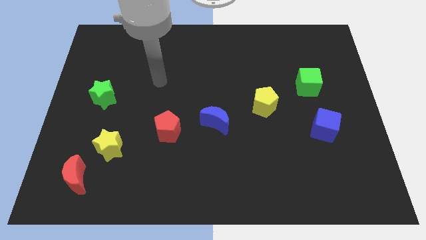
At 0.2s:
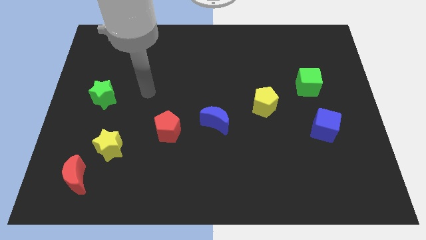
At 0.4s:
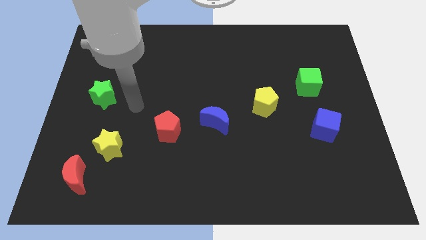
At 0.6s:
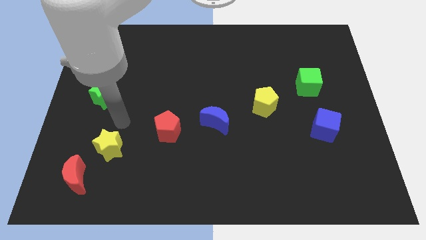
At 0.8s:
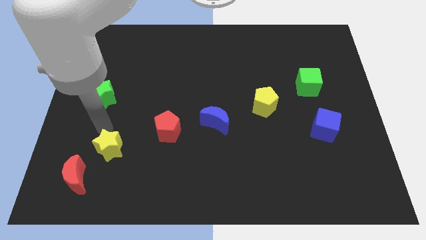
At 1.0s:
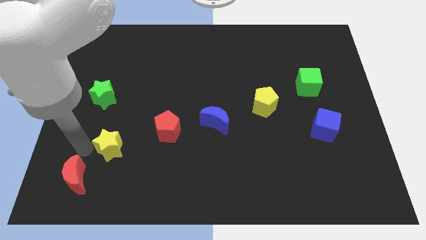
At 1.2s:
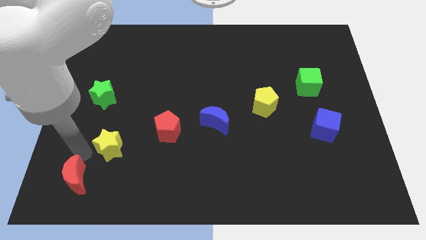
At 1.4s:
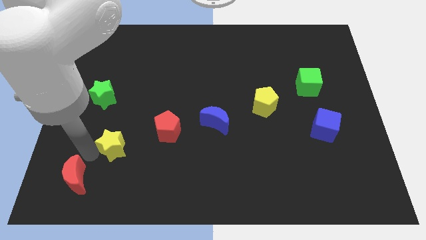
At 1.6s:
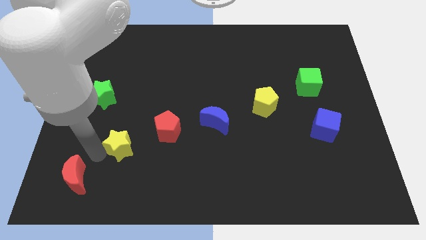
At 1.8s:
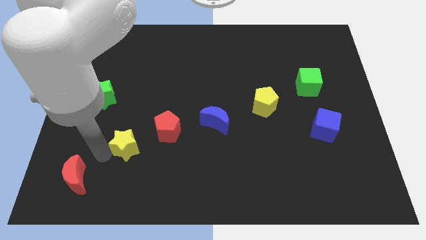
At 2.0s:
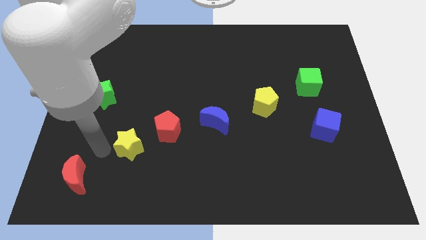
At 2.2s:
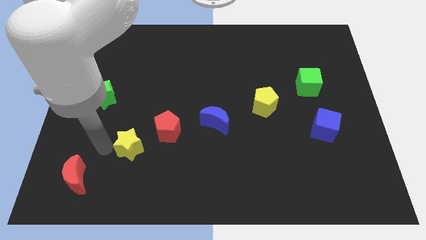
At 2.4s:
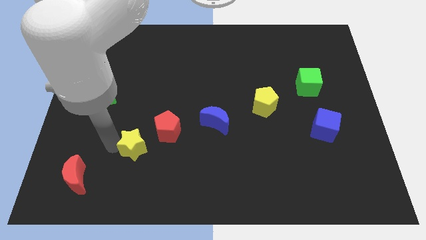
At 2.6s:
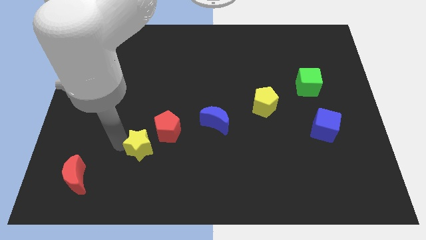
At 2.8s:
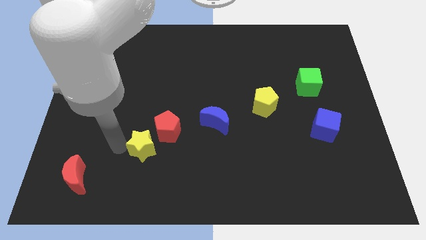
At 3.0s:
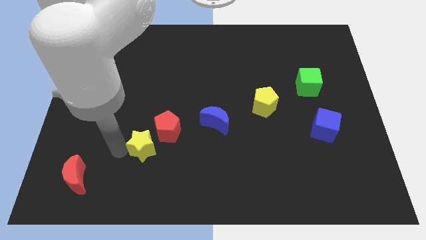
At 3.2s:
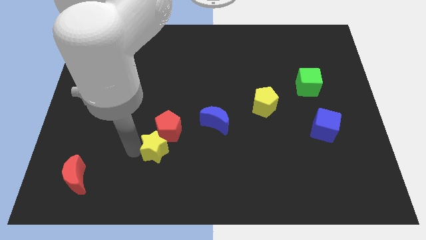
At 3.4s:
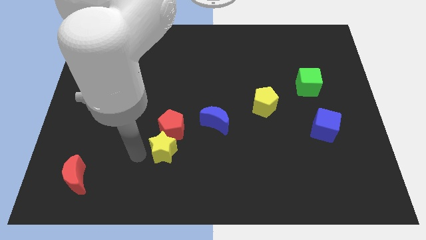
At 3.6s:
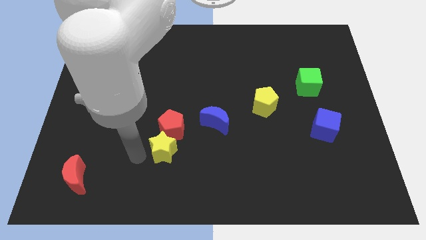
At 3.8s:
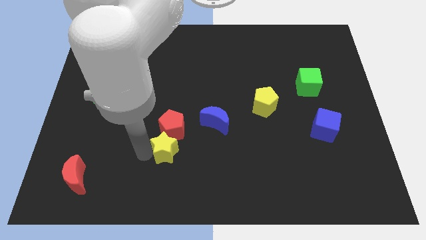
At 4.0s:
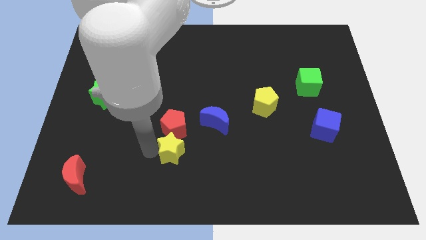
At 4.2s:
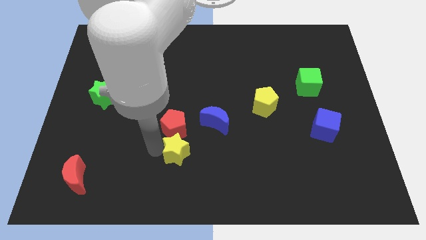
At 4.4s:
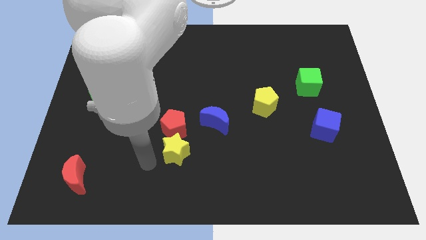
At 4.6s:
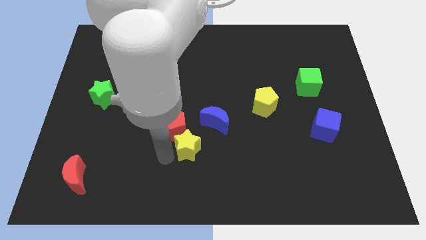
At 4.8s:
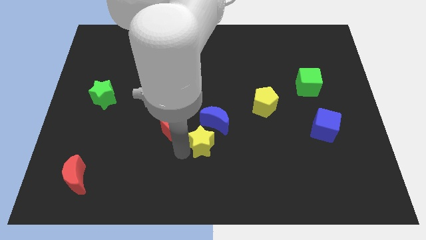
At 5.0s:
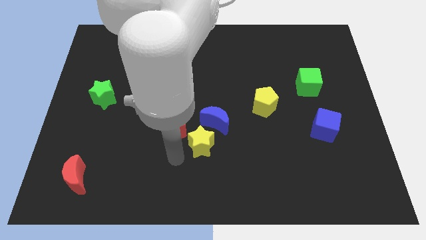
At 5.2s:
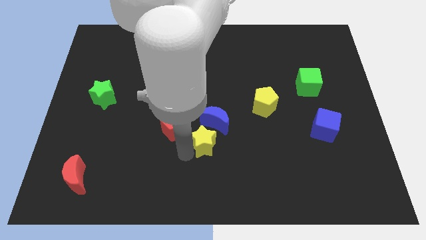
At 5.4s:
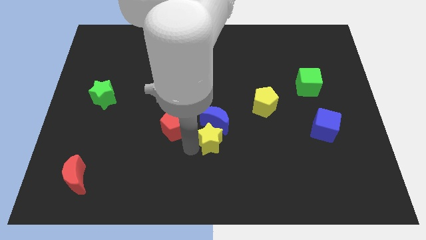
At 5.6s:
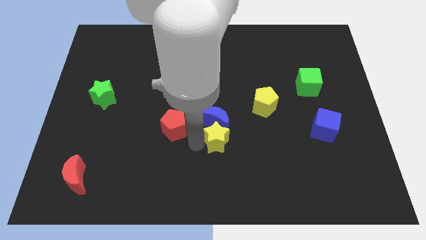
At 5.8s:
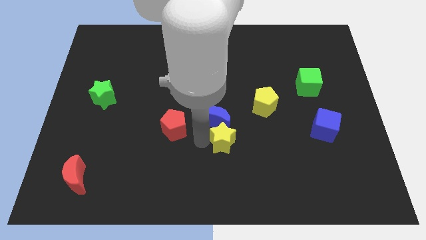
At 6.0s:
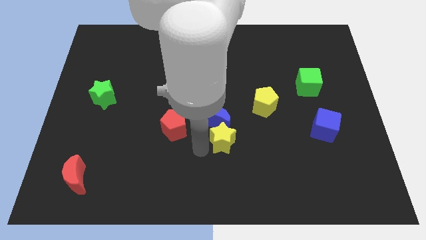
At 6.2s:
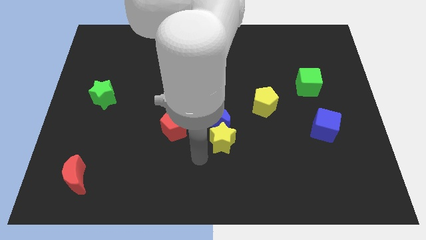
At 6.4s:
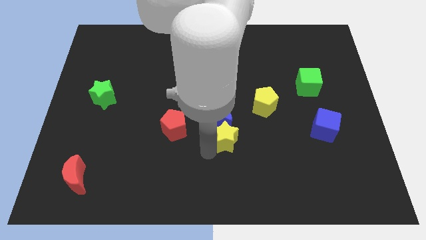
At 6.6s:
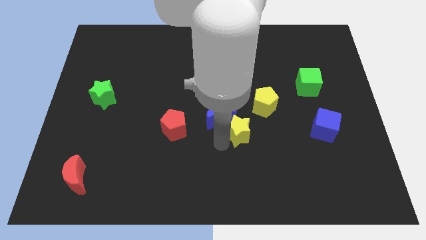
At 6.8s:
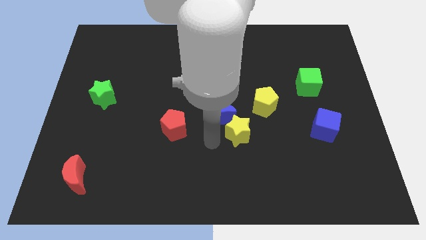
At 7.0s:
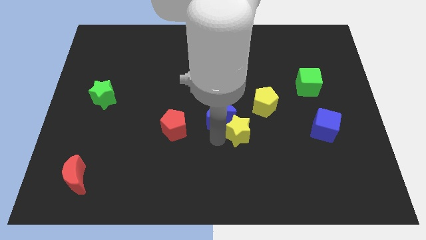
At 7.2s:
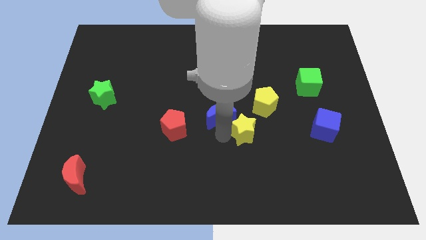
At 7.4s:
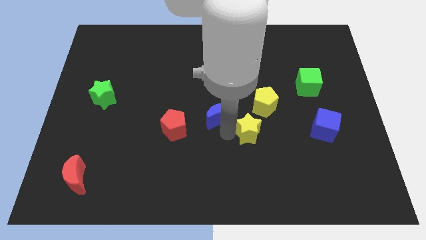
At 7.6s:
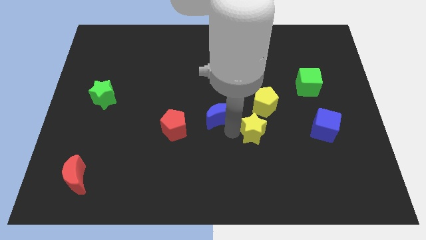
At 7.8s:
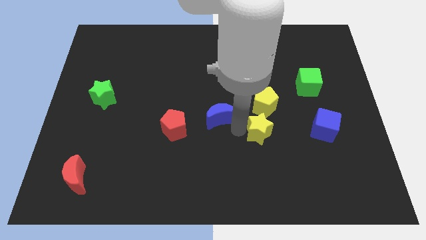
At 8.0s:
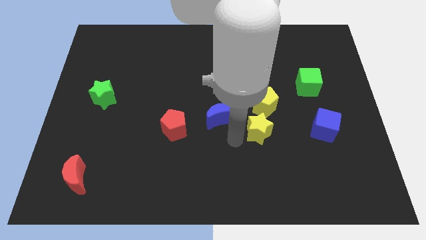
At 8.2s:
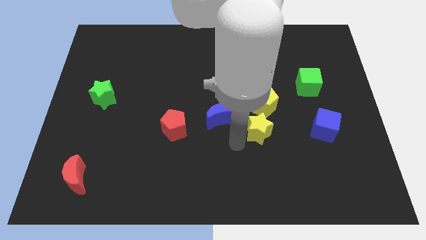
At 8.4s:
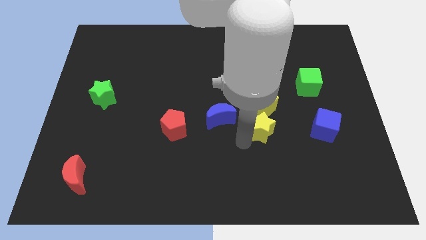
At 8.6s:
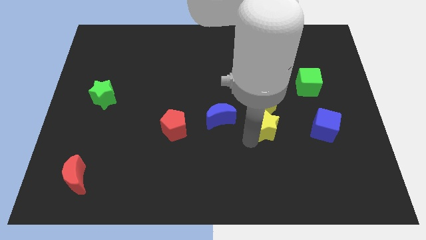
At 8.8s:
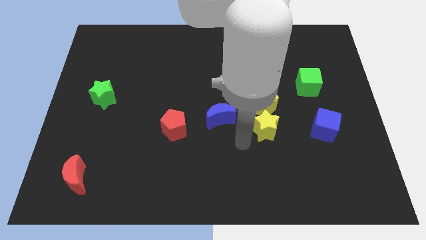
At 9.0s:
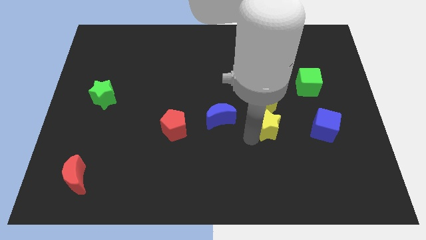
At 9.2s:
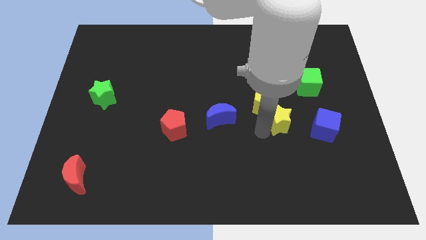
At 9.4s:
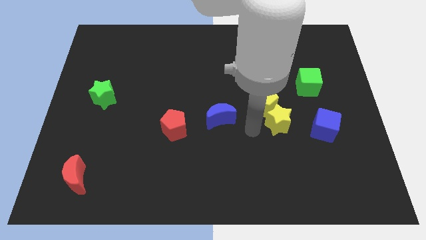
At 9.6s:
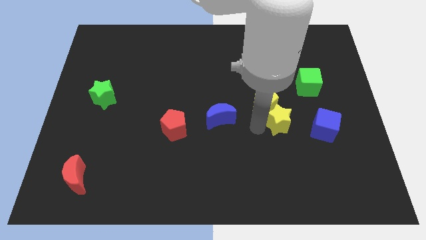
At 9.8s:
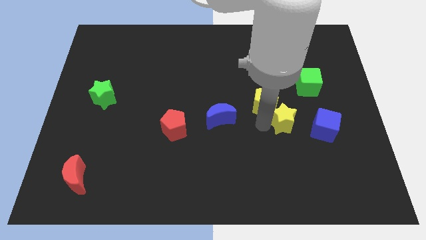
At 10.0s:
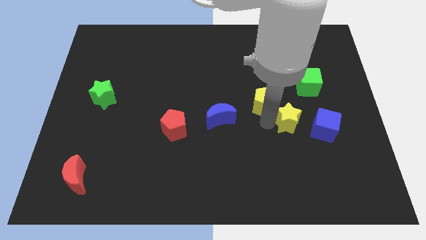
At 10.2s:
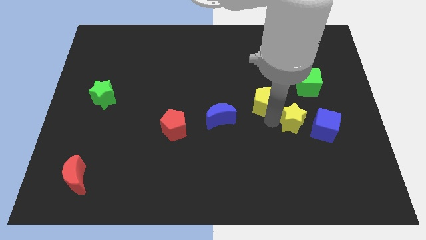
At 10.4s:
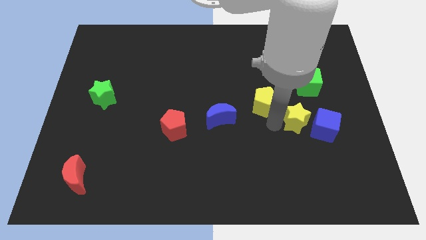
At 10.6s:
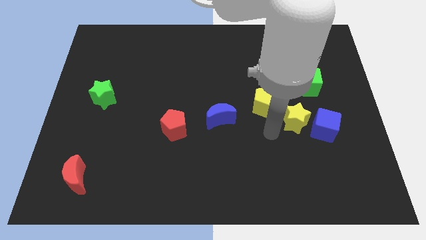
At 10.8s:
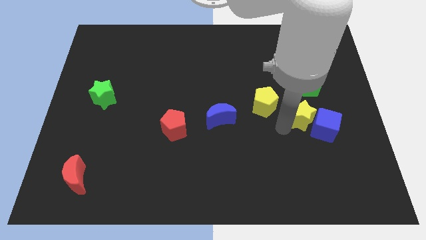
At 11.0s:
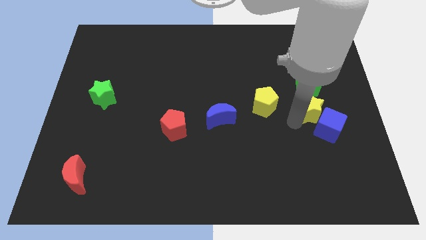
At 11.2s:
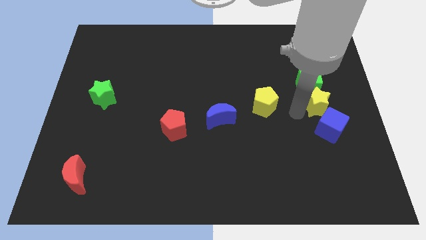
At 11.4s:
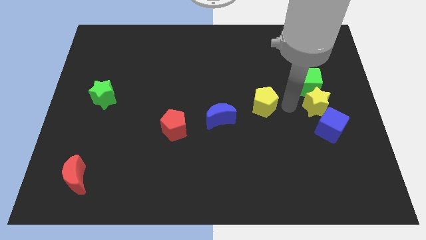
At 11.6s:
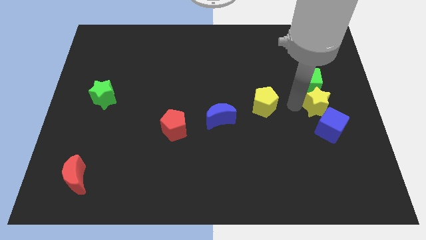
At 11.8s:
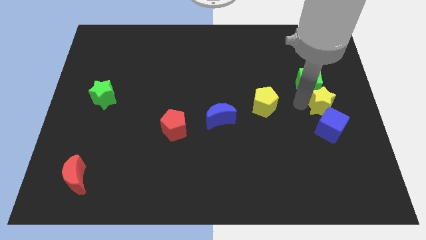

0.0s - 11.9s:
put the yellow star to the center right

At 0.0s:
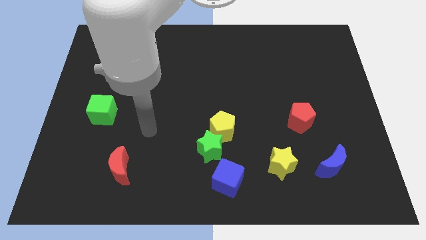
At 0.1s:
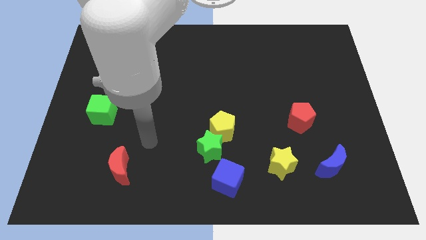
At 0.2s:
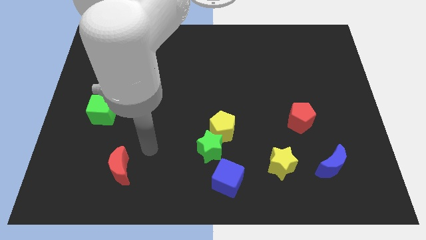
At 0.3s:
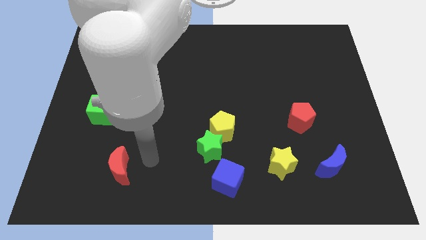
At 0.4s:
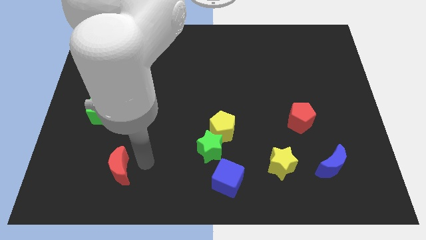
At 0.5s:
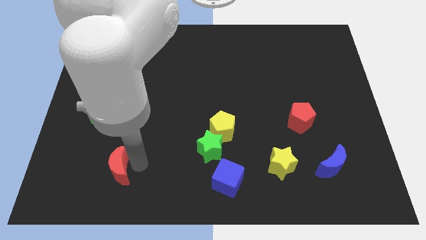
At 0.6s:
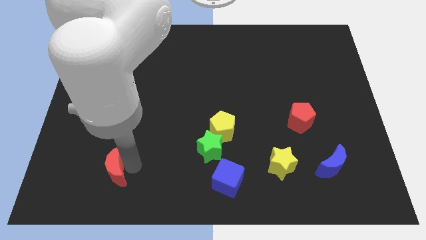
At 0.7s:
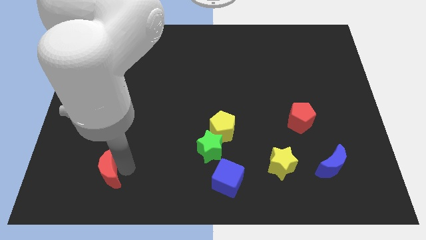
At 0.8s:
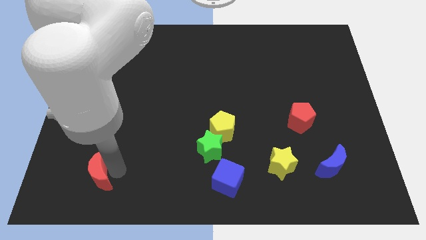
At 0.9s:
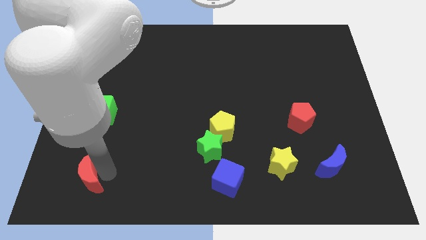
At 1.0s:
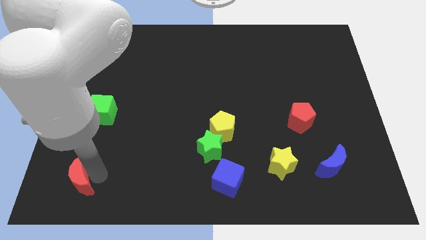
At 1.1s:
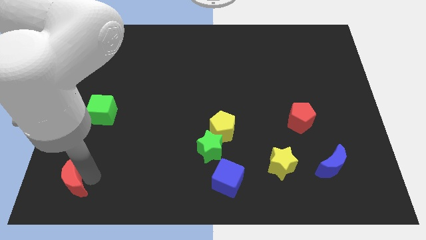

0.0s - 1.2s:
put the red moon to the lower left corner

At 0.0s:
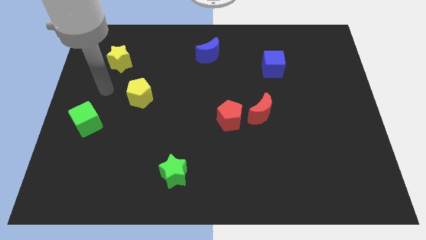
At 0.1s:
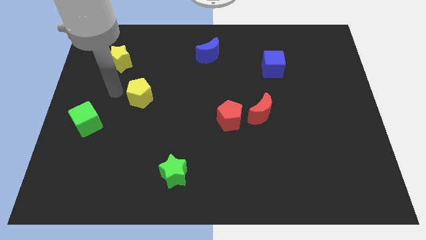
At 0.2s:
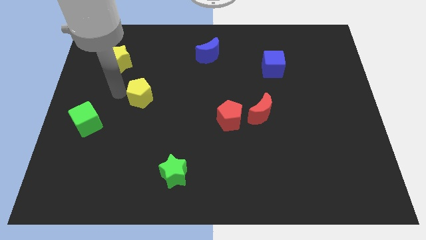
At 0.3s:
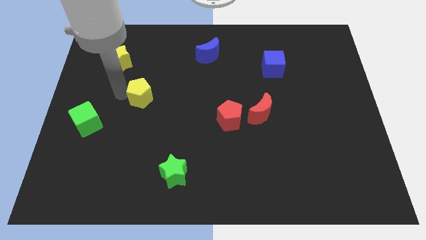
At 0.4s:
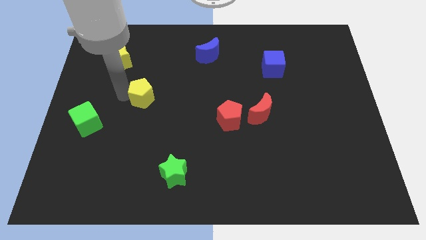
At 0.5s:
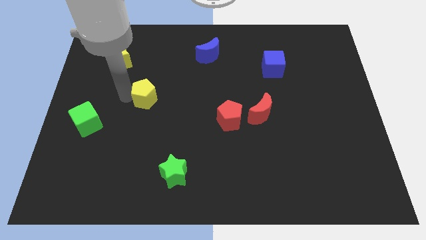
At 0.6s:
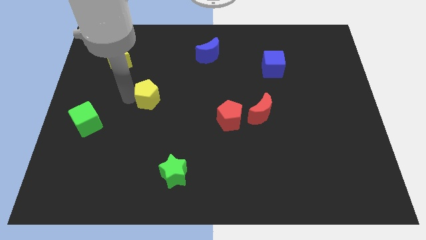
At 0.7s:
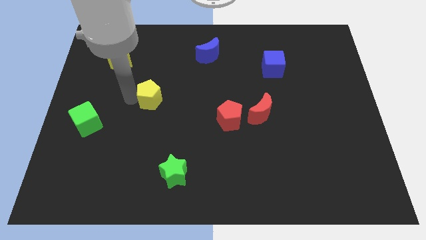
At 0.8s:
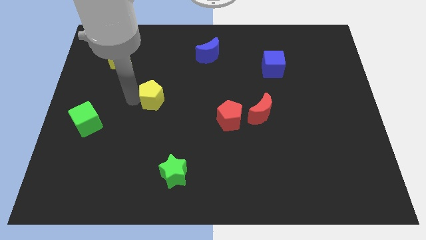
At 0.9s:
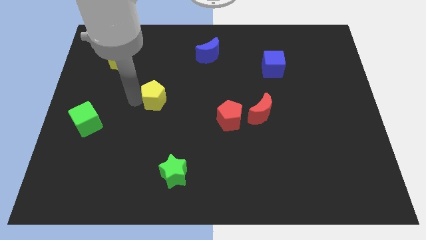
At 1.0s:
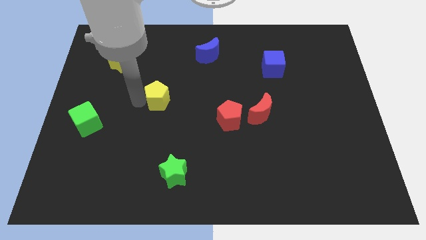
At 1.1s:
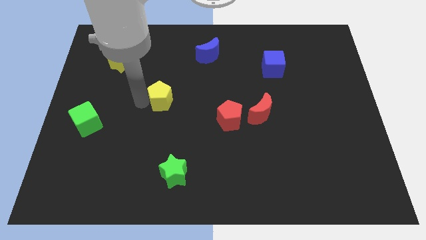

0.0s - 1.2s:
move the yellow pentagon to the center of the board
